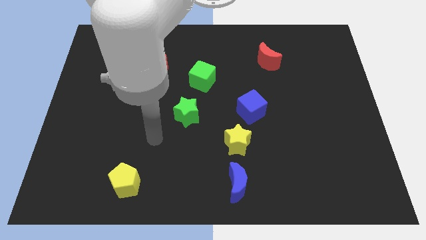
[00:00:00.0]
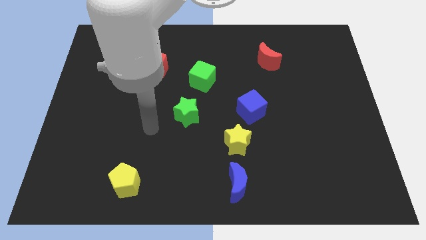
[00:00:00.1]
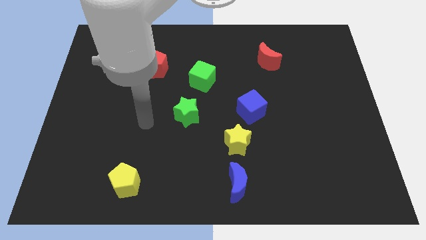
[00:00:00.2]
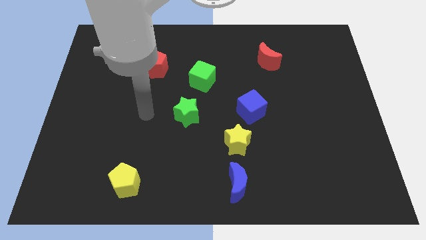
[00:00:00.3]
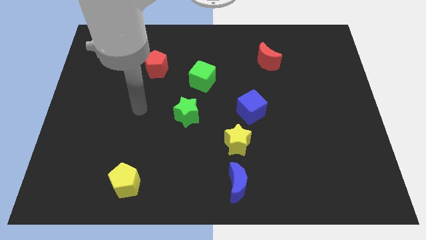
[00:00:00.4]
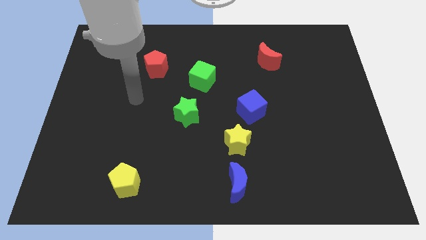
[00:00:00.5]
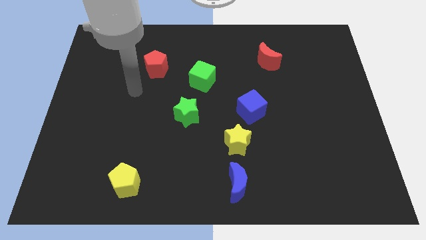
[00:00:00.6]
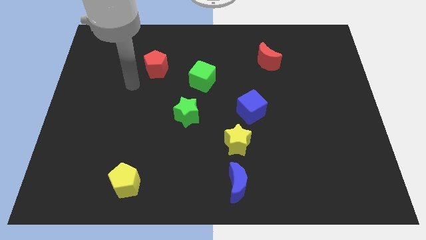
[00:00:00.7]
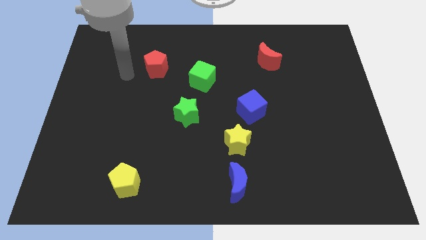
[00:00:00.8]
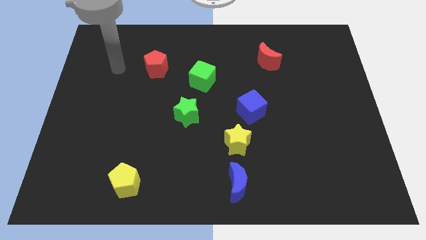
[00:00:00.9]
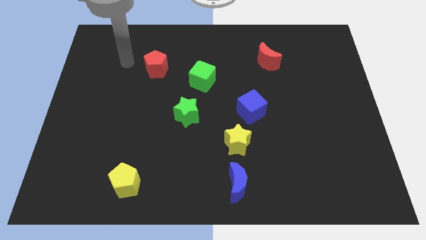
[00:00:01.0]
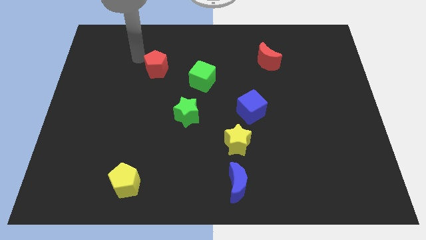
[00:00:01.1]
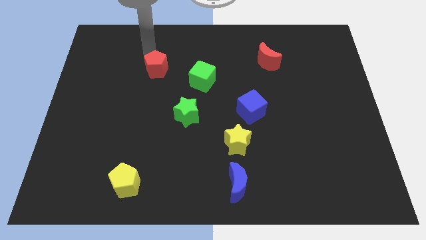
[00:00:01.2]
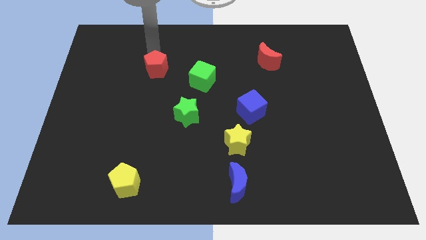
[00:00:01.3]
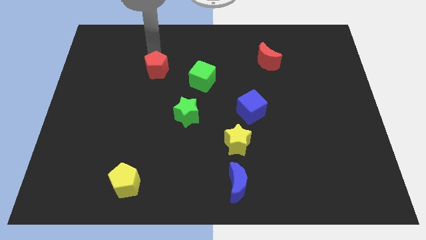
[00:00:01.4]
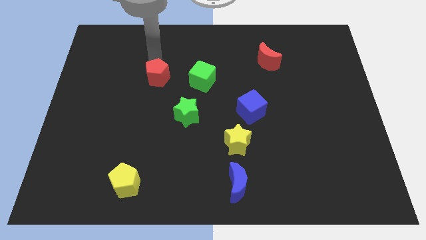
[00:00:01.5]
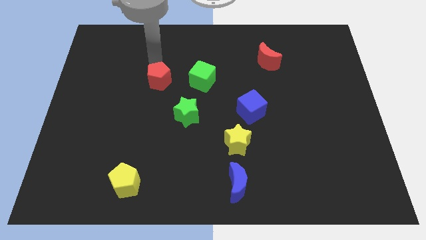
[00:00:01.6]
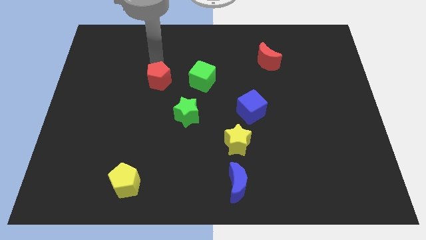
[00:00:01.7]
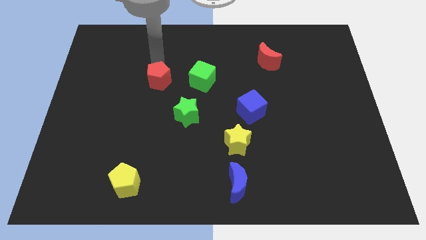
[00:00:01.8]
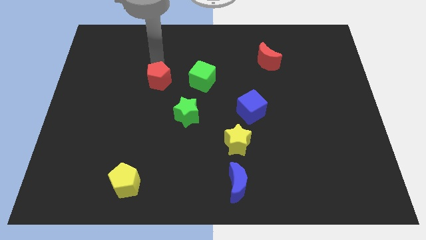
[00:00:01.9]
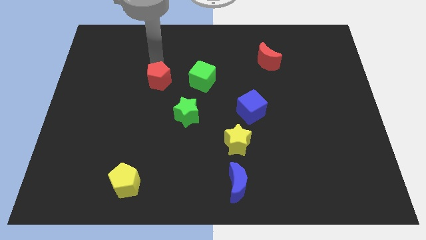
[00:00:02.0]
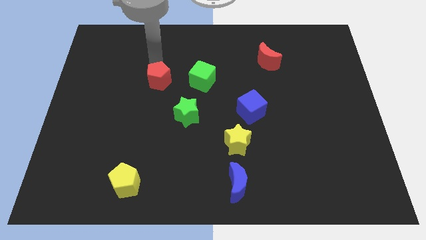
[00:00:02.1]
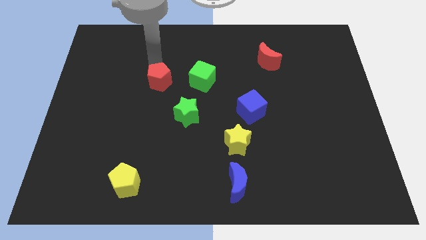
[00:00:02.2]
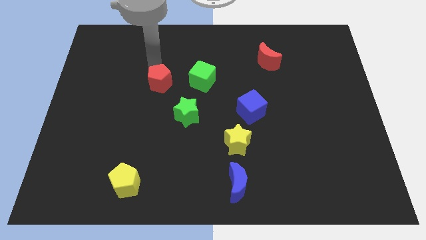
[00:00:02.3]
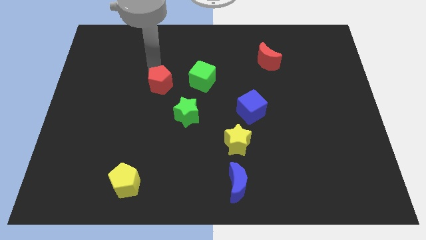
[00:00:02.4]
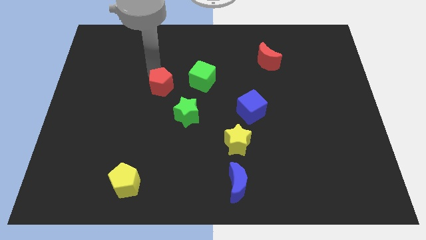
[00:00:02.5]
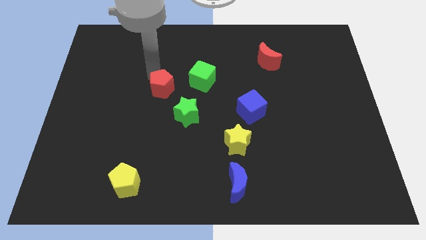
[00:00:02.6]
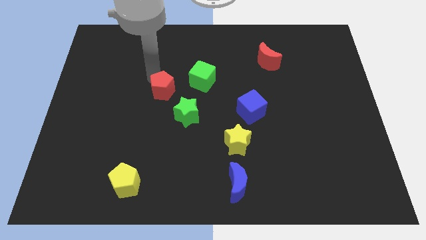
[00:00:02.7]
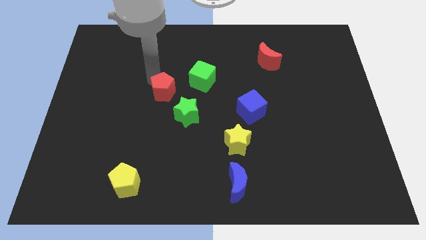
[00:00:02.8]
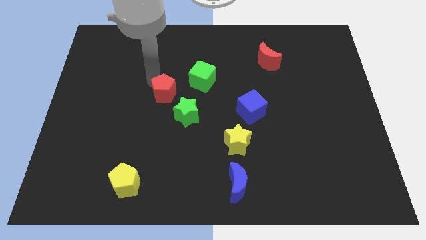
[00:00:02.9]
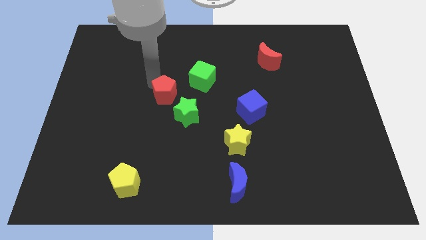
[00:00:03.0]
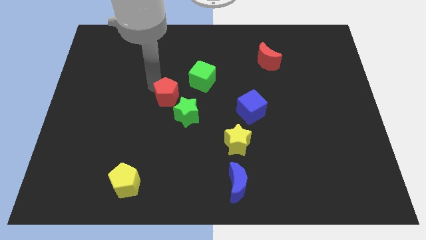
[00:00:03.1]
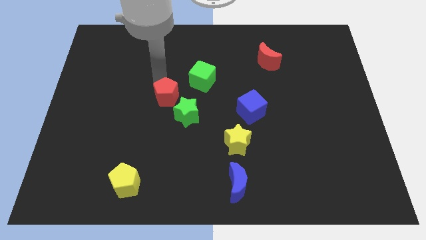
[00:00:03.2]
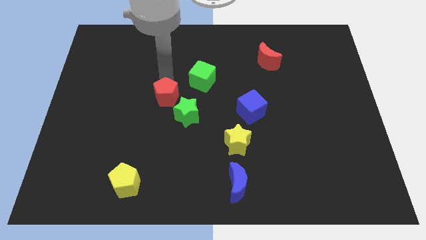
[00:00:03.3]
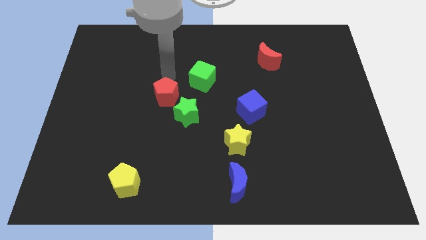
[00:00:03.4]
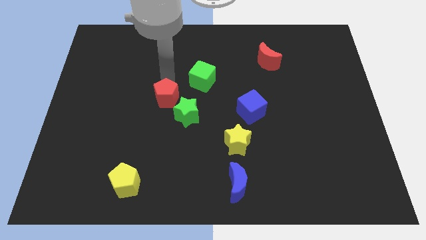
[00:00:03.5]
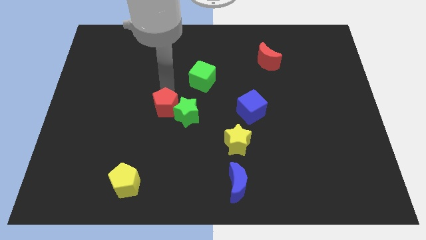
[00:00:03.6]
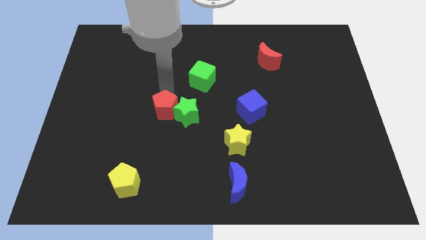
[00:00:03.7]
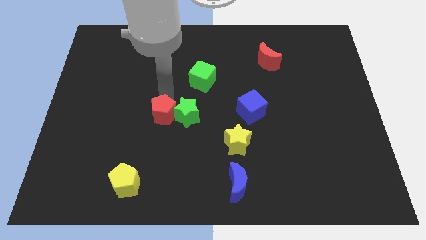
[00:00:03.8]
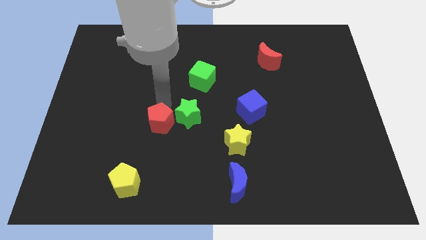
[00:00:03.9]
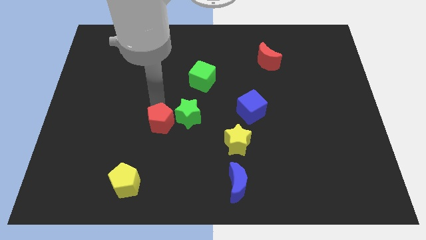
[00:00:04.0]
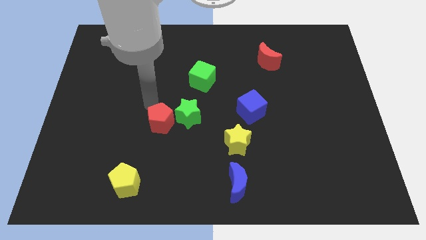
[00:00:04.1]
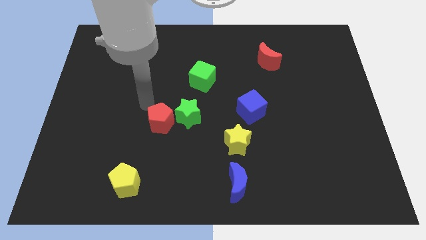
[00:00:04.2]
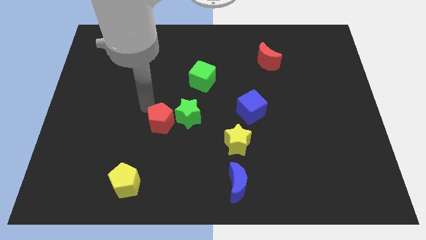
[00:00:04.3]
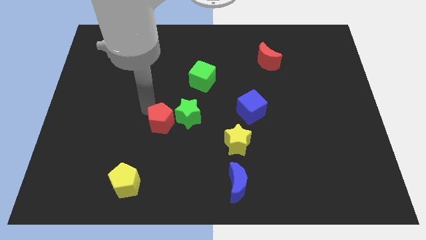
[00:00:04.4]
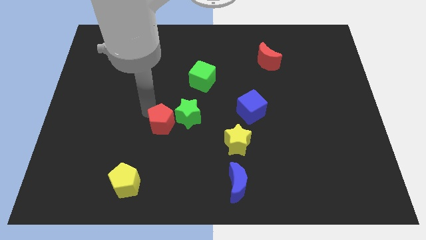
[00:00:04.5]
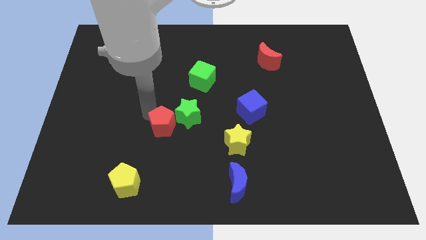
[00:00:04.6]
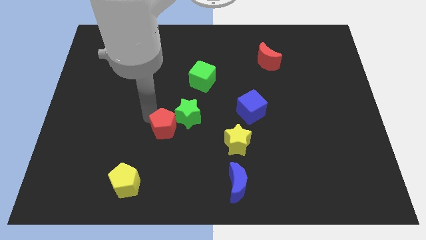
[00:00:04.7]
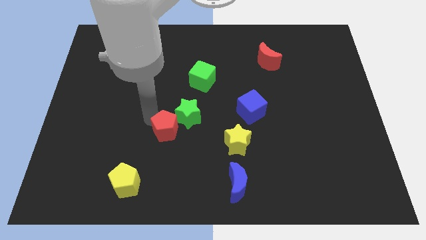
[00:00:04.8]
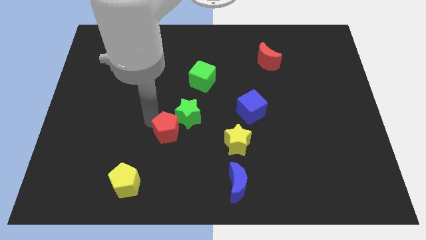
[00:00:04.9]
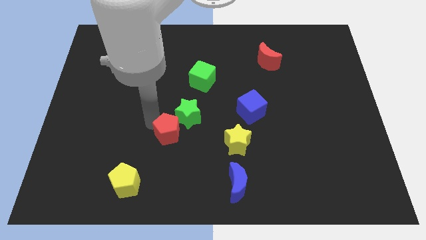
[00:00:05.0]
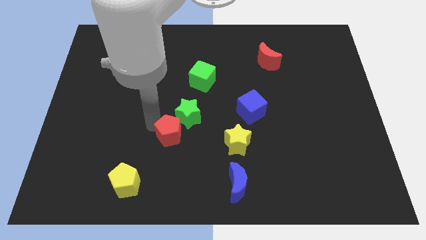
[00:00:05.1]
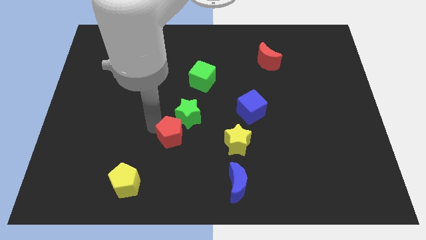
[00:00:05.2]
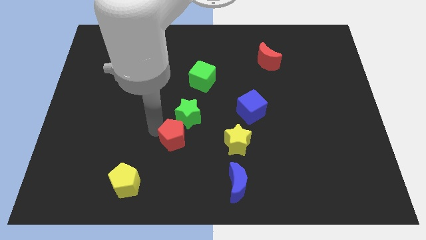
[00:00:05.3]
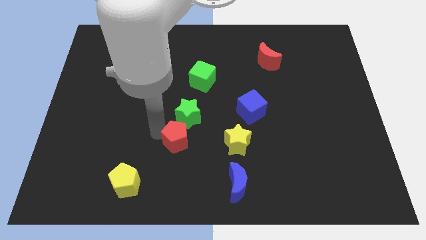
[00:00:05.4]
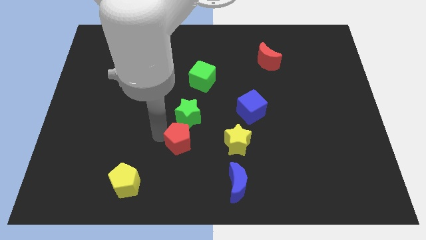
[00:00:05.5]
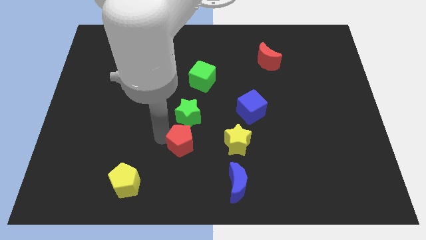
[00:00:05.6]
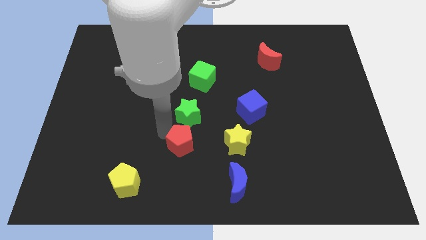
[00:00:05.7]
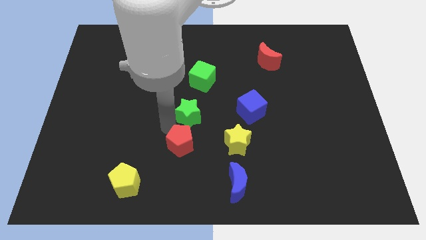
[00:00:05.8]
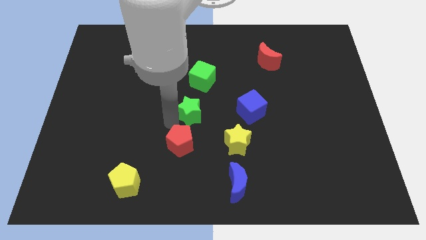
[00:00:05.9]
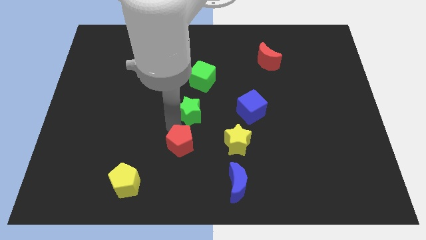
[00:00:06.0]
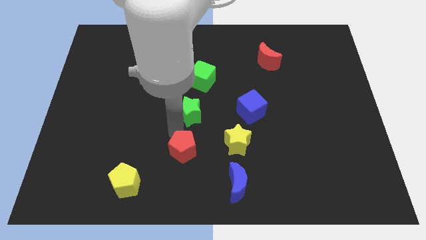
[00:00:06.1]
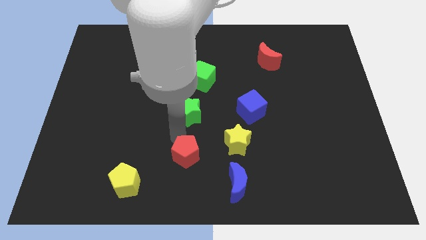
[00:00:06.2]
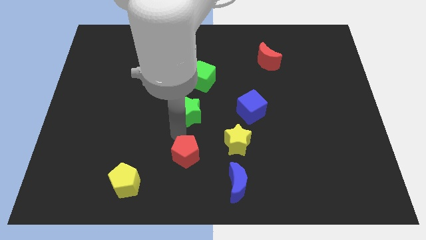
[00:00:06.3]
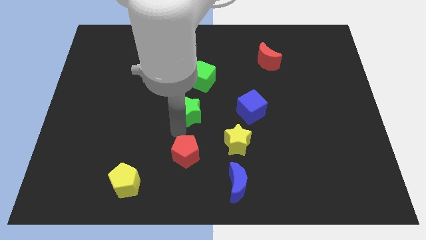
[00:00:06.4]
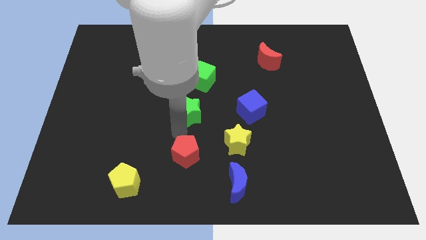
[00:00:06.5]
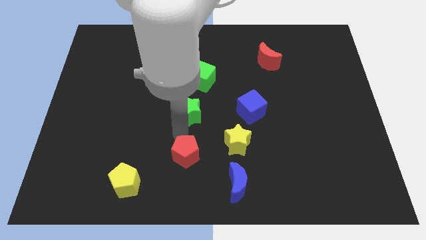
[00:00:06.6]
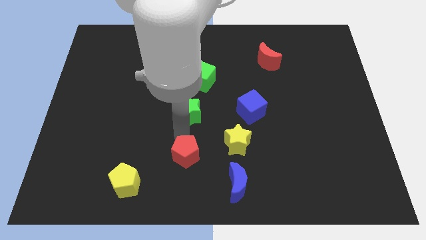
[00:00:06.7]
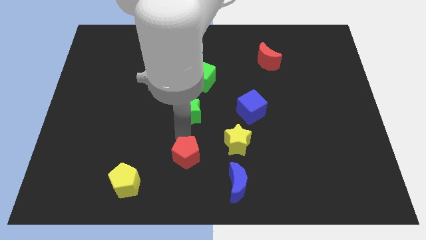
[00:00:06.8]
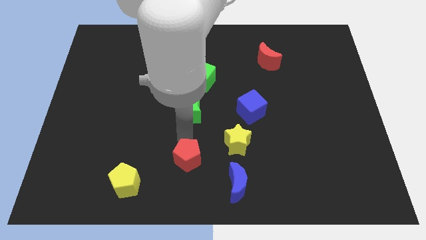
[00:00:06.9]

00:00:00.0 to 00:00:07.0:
push the red pentagon to the bottom
